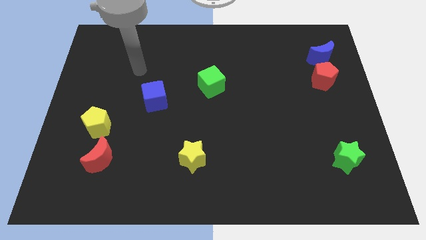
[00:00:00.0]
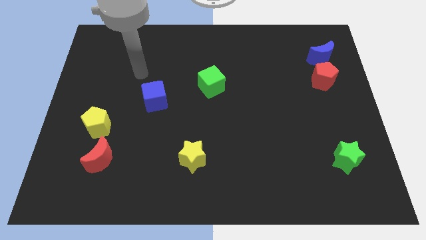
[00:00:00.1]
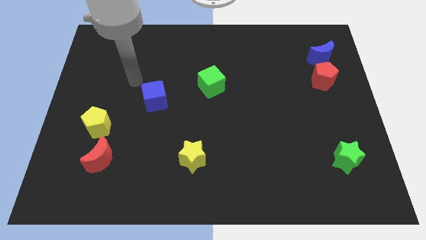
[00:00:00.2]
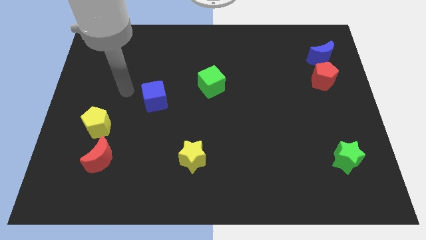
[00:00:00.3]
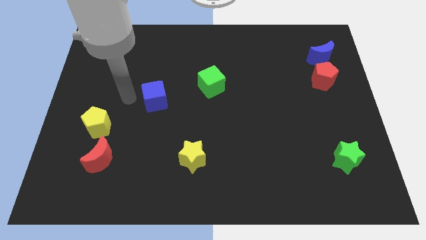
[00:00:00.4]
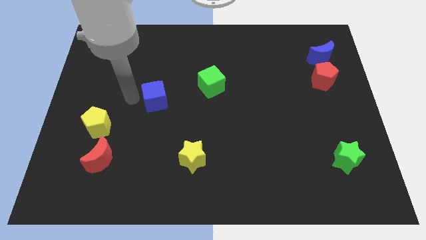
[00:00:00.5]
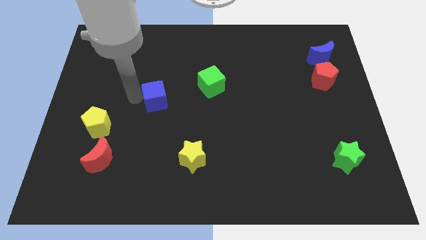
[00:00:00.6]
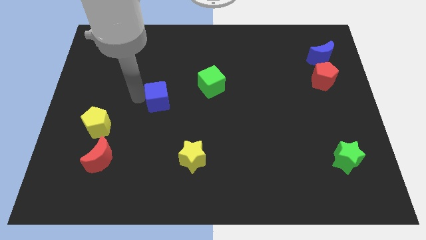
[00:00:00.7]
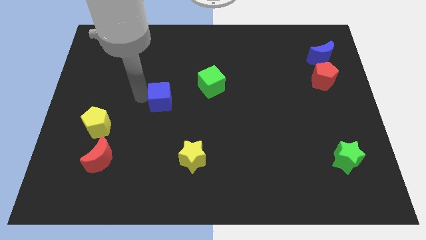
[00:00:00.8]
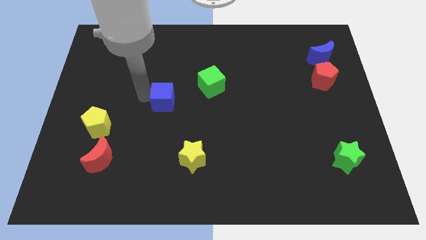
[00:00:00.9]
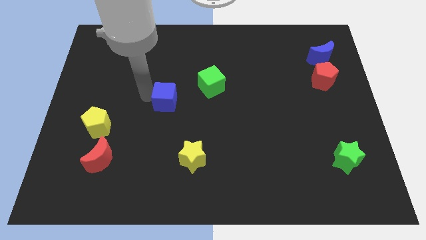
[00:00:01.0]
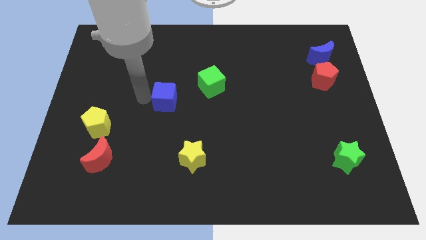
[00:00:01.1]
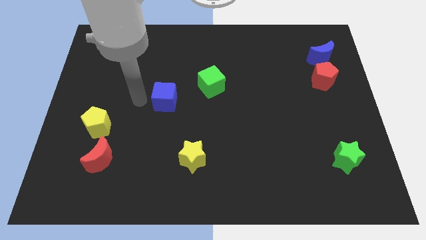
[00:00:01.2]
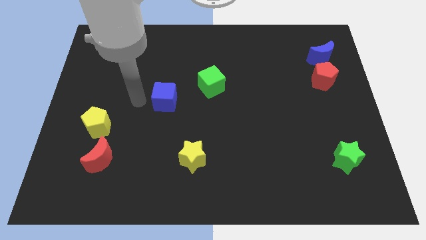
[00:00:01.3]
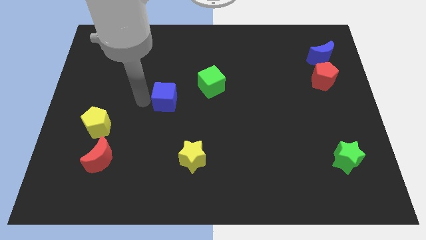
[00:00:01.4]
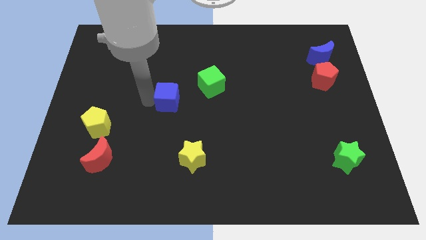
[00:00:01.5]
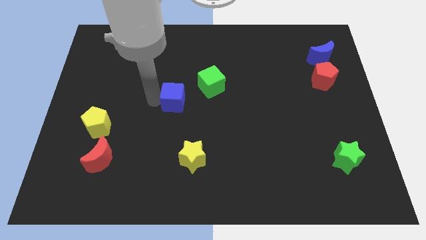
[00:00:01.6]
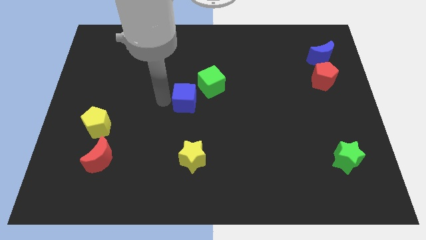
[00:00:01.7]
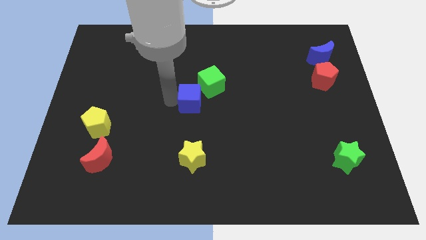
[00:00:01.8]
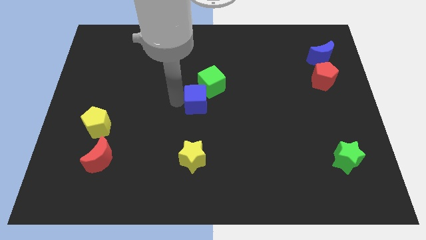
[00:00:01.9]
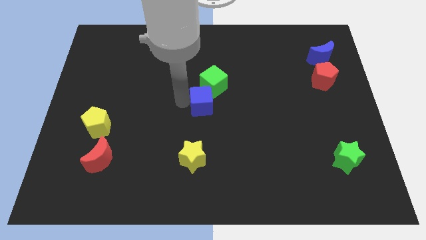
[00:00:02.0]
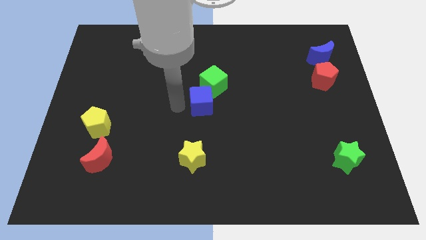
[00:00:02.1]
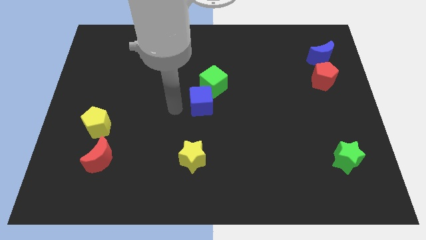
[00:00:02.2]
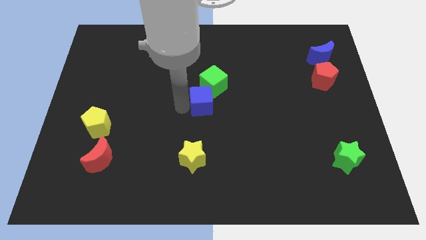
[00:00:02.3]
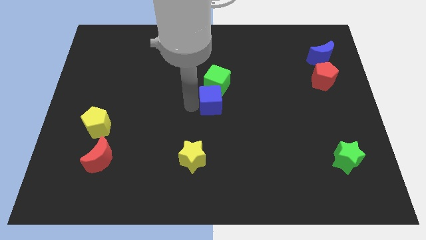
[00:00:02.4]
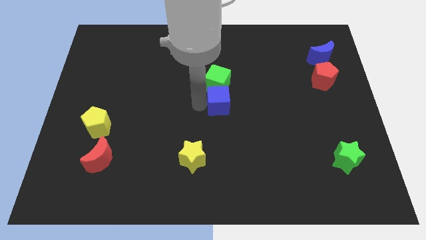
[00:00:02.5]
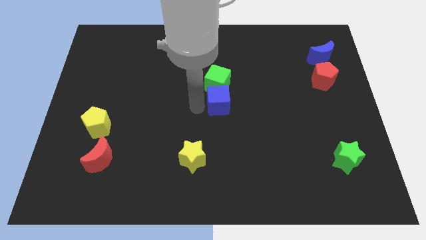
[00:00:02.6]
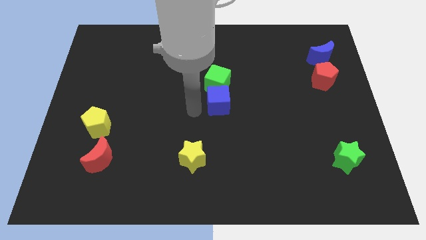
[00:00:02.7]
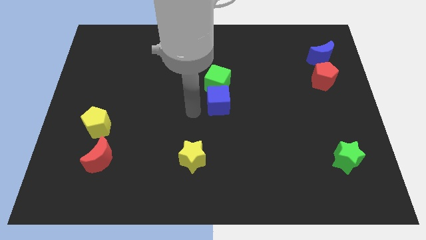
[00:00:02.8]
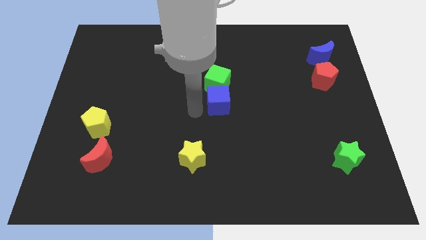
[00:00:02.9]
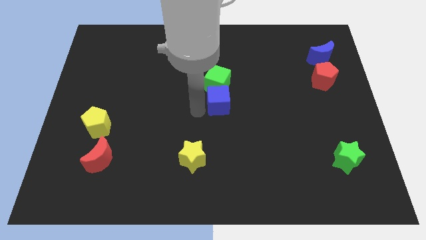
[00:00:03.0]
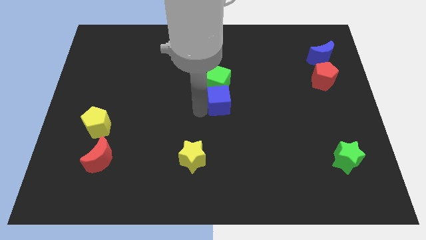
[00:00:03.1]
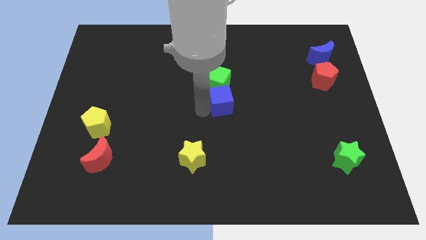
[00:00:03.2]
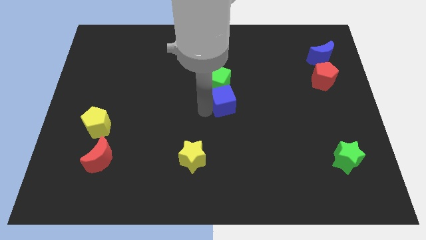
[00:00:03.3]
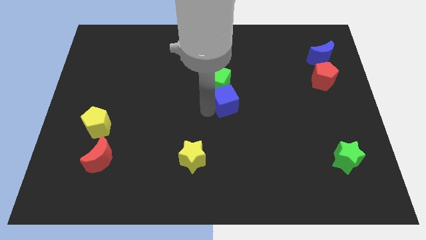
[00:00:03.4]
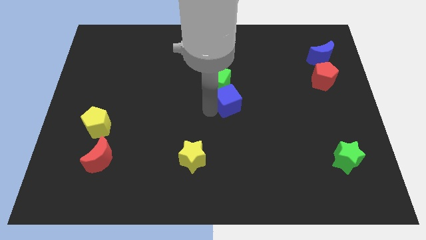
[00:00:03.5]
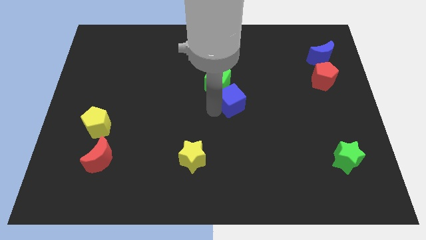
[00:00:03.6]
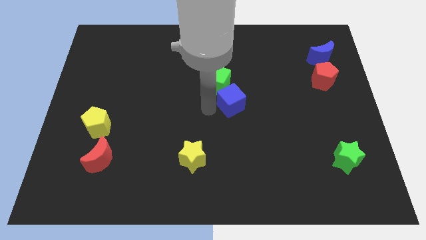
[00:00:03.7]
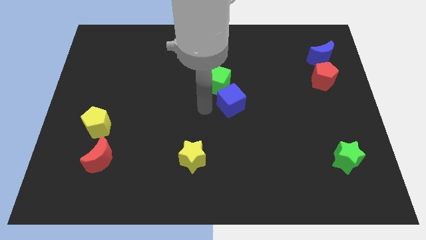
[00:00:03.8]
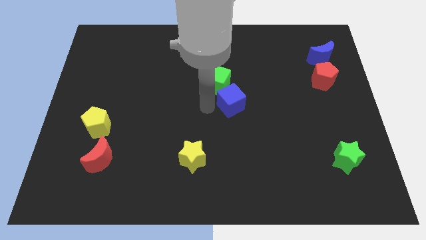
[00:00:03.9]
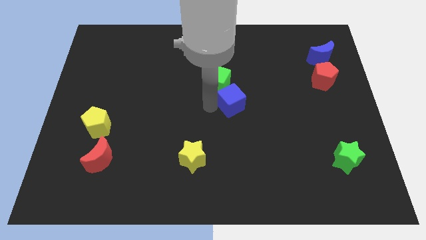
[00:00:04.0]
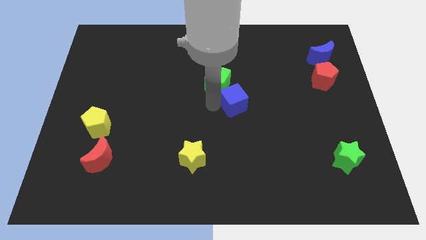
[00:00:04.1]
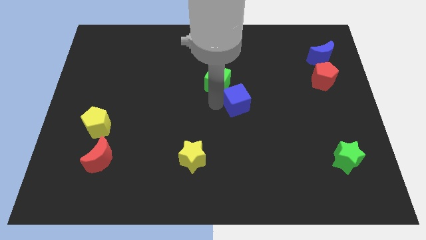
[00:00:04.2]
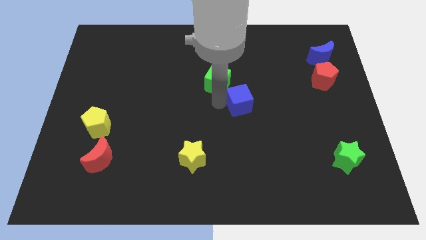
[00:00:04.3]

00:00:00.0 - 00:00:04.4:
push the blue cube right

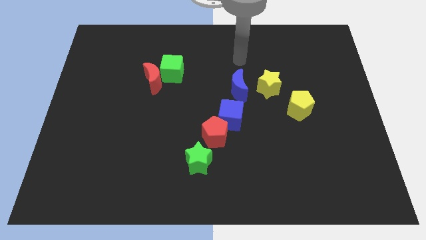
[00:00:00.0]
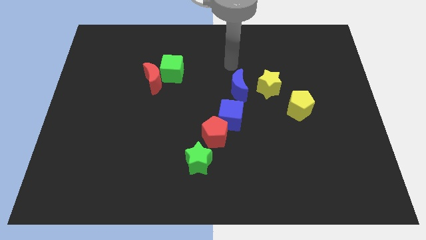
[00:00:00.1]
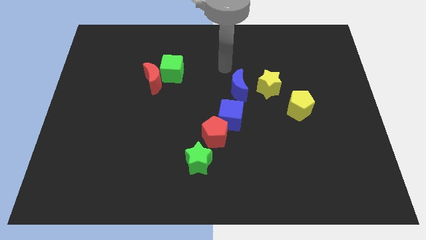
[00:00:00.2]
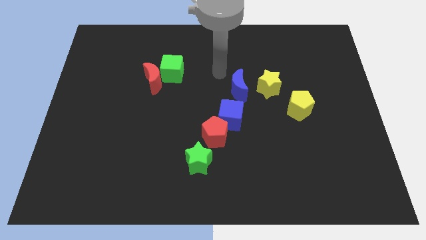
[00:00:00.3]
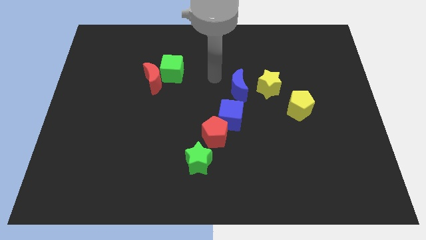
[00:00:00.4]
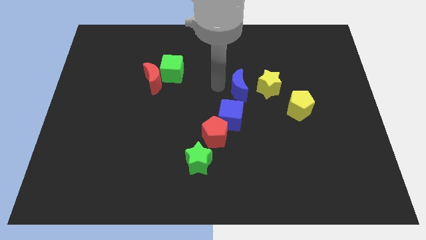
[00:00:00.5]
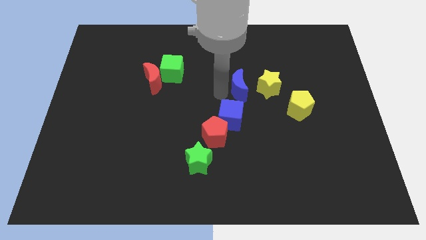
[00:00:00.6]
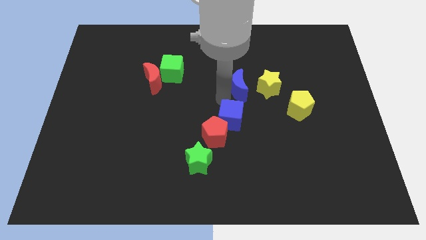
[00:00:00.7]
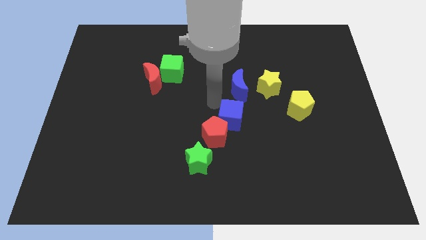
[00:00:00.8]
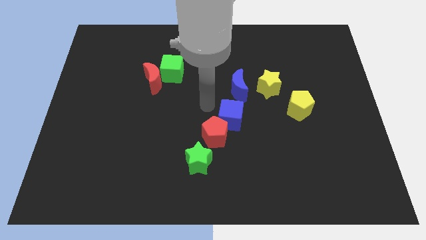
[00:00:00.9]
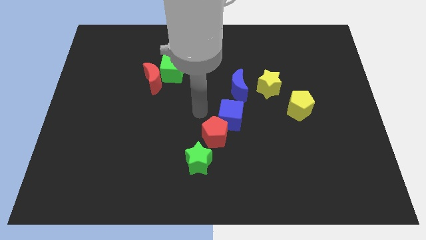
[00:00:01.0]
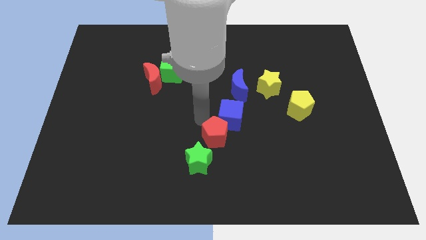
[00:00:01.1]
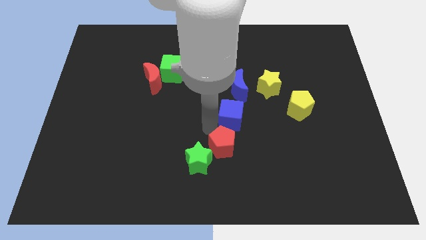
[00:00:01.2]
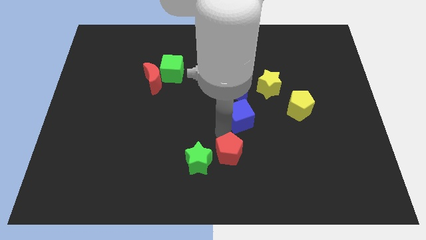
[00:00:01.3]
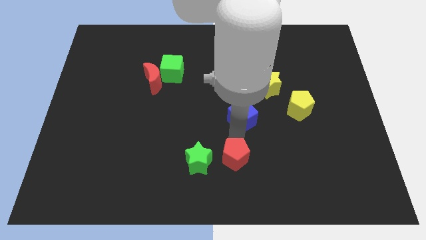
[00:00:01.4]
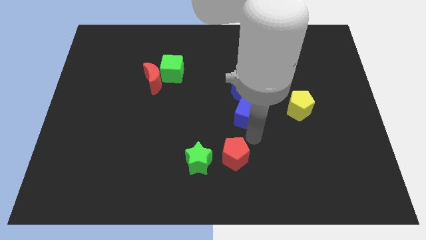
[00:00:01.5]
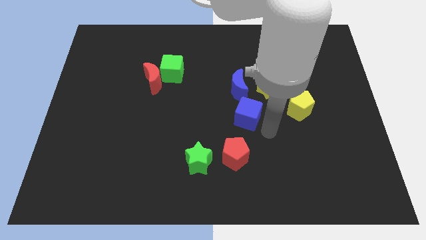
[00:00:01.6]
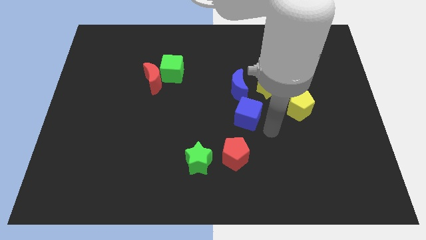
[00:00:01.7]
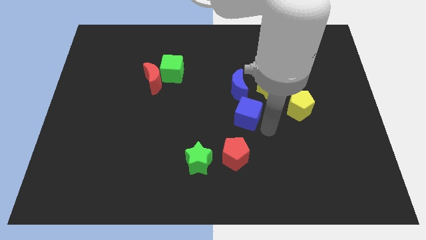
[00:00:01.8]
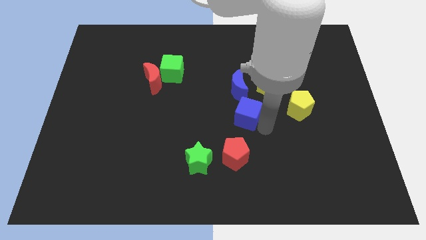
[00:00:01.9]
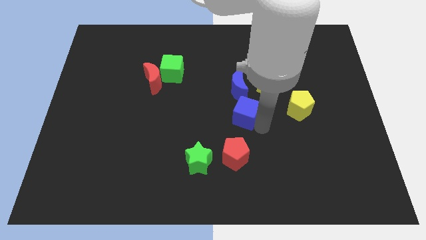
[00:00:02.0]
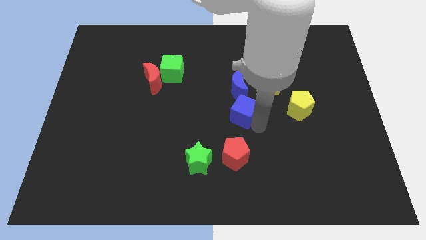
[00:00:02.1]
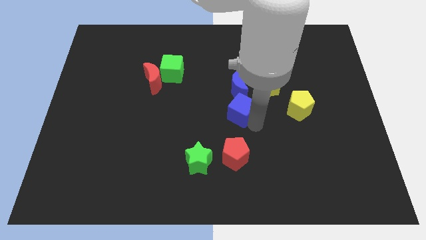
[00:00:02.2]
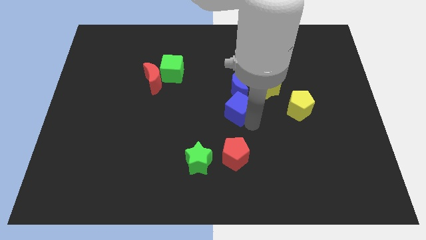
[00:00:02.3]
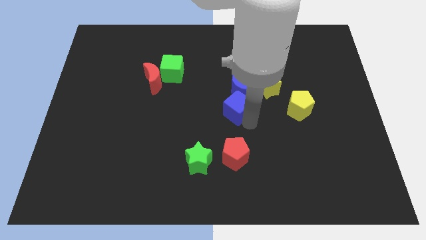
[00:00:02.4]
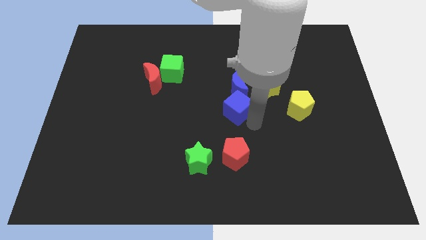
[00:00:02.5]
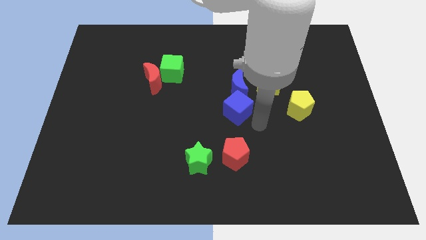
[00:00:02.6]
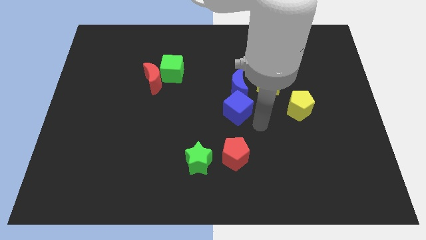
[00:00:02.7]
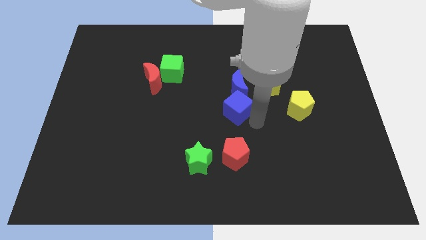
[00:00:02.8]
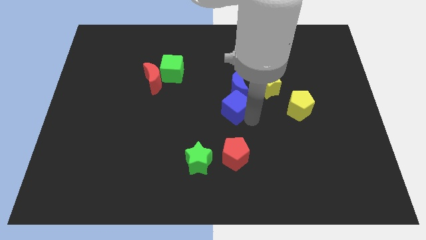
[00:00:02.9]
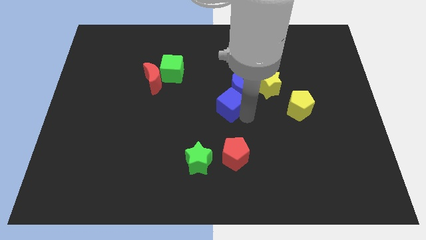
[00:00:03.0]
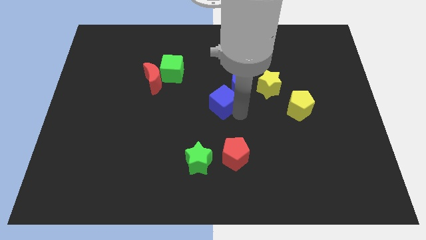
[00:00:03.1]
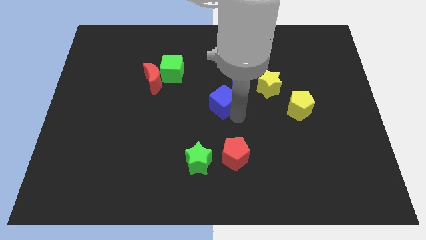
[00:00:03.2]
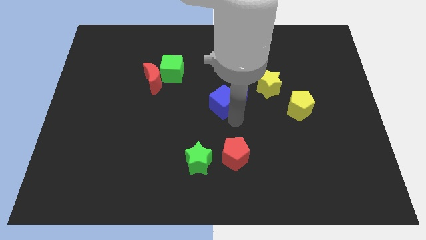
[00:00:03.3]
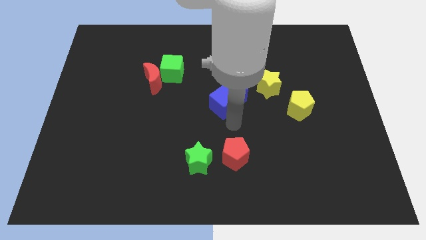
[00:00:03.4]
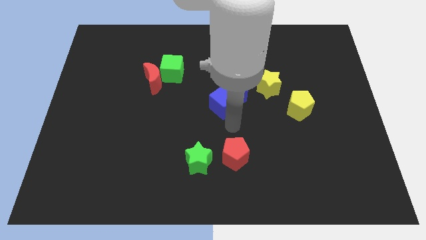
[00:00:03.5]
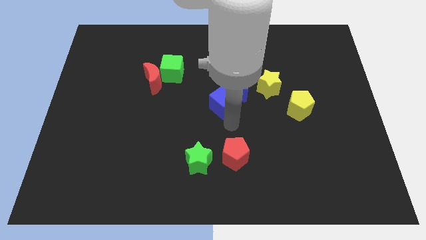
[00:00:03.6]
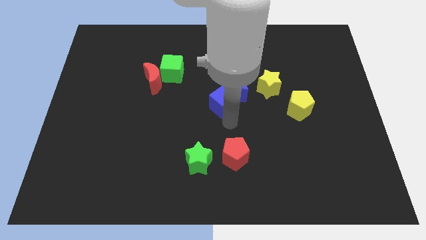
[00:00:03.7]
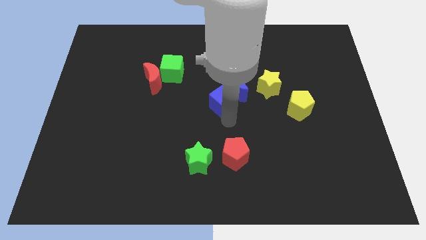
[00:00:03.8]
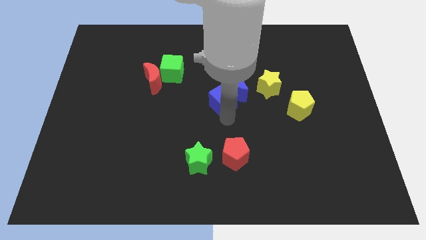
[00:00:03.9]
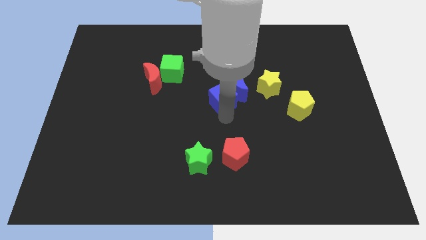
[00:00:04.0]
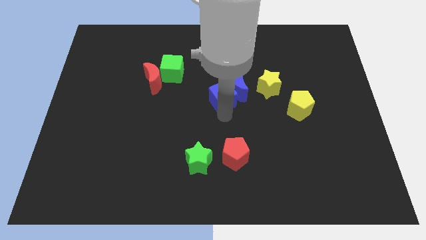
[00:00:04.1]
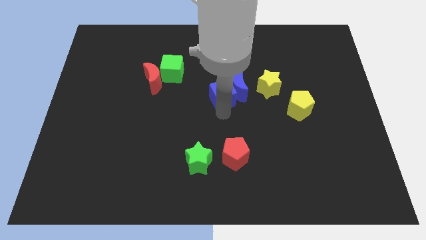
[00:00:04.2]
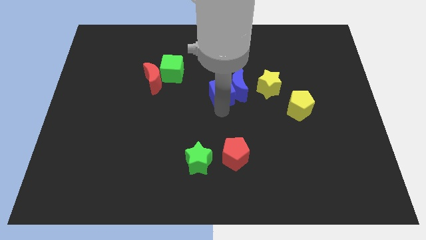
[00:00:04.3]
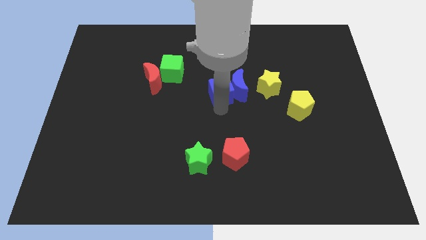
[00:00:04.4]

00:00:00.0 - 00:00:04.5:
move the blue cube upwards slightly
